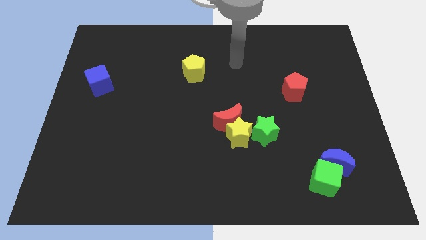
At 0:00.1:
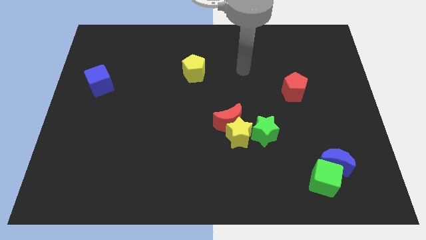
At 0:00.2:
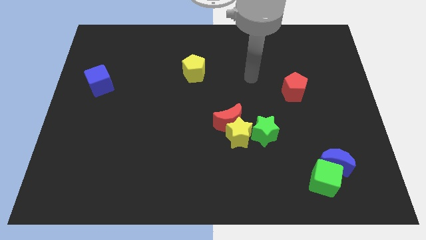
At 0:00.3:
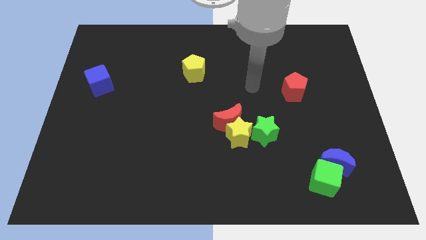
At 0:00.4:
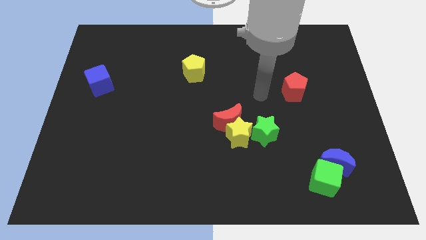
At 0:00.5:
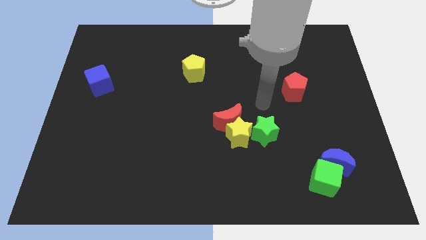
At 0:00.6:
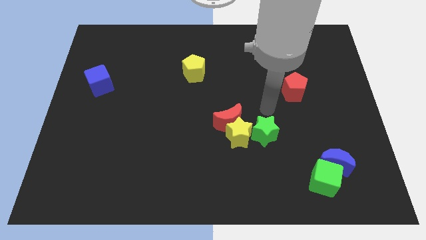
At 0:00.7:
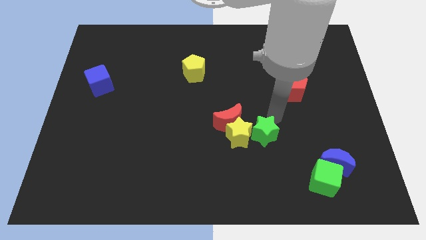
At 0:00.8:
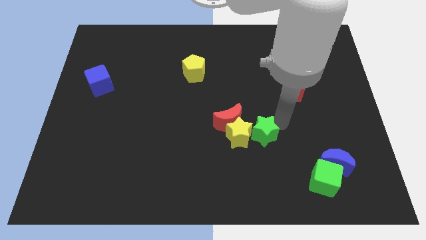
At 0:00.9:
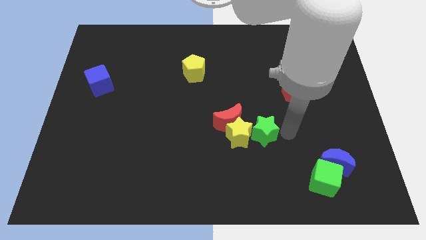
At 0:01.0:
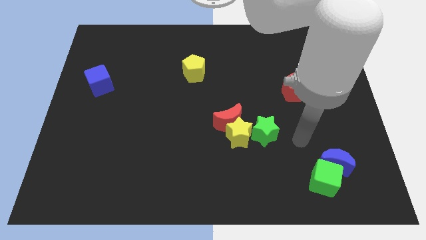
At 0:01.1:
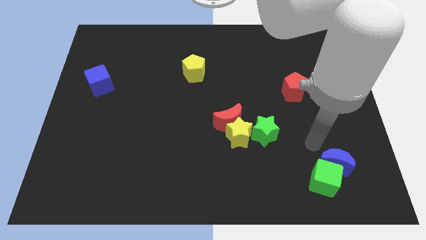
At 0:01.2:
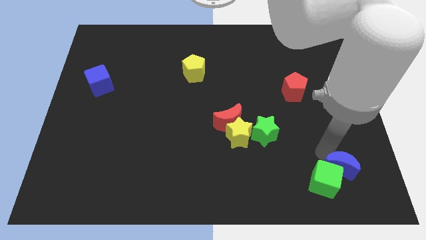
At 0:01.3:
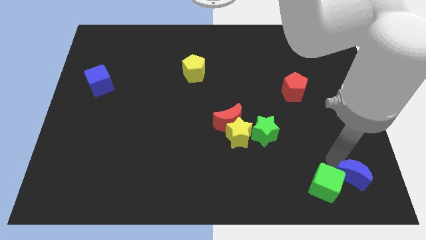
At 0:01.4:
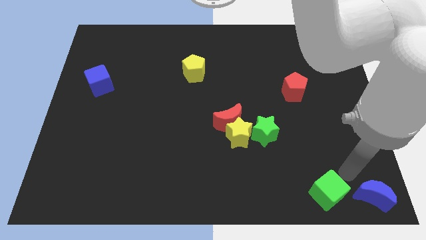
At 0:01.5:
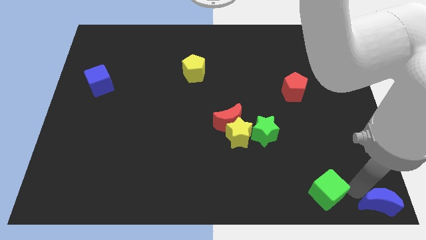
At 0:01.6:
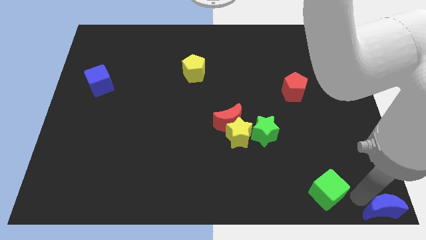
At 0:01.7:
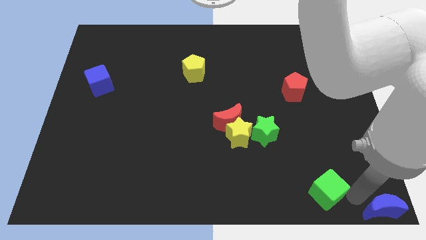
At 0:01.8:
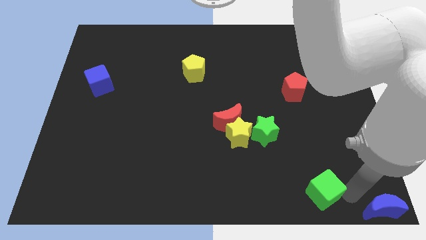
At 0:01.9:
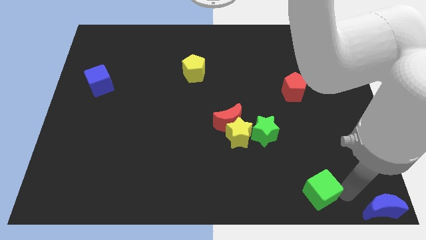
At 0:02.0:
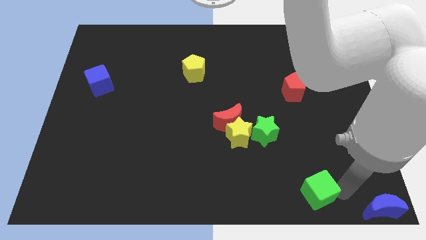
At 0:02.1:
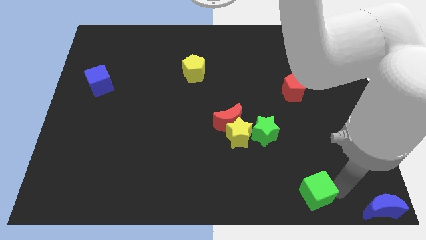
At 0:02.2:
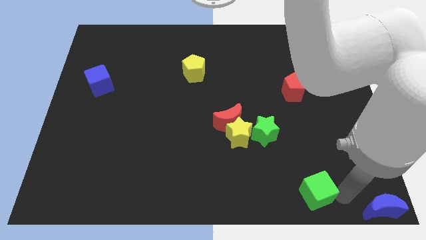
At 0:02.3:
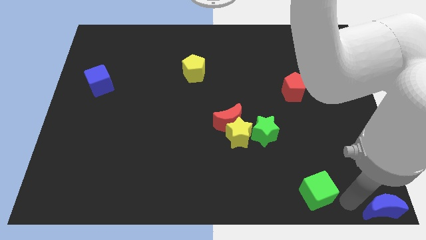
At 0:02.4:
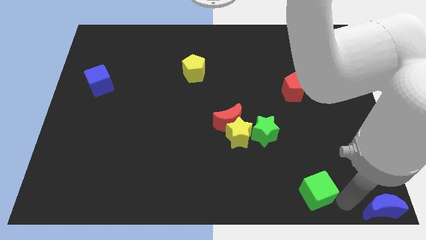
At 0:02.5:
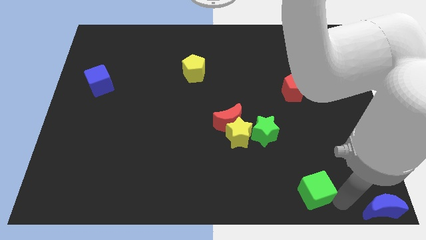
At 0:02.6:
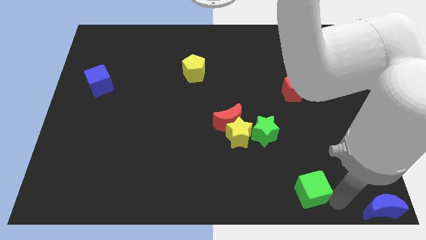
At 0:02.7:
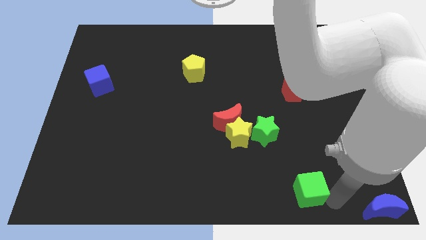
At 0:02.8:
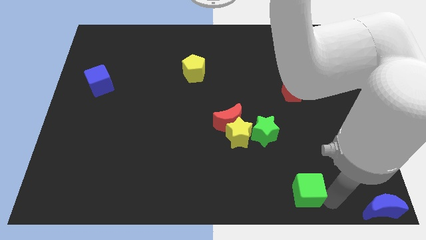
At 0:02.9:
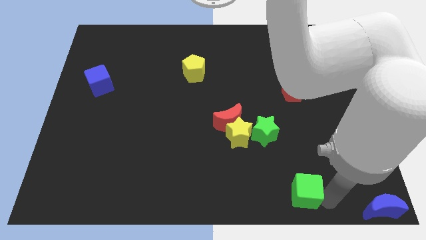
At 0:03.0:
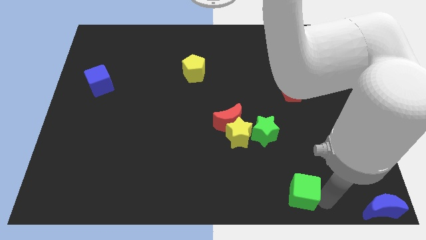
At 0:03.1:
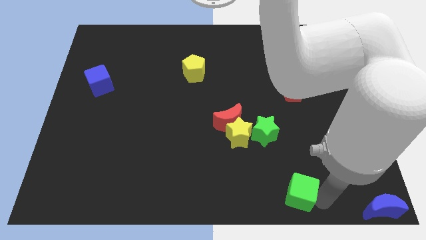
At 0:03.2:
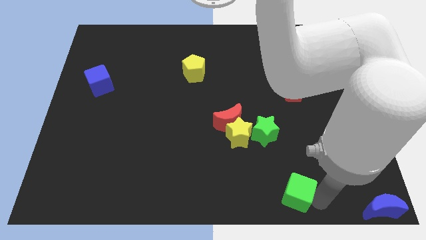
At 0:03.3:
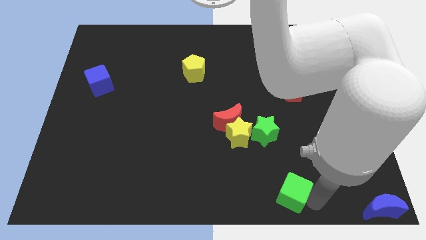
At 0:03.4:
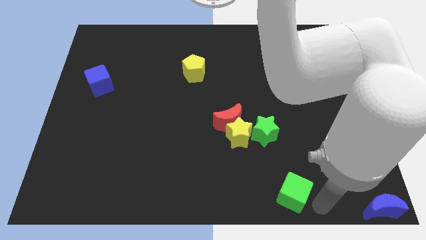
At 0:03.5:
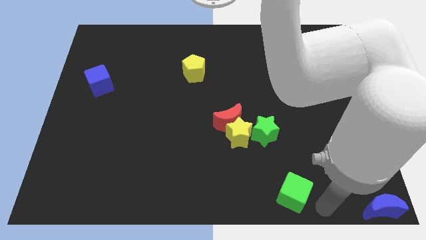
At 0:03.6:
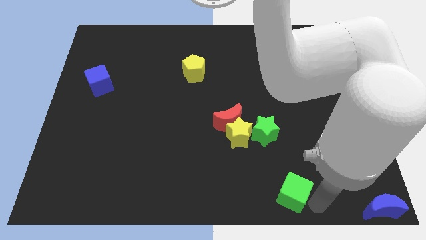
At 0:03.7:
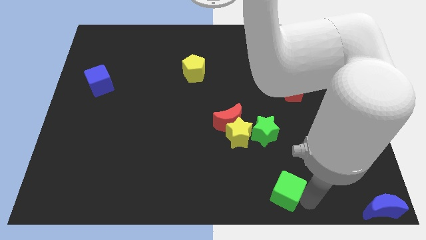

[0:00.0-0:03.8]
move the green cube slightly left

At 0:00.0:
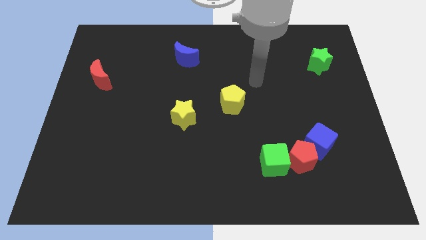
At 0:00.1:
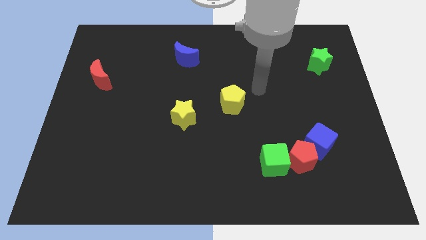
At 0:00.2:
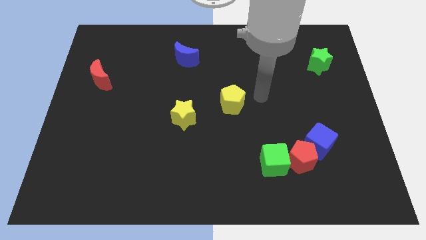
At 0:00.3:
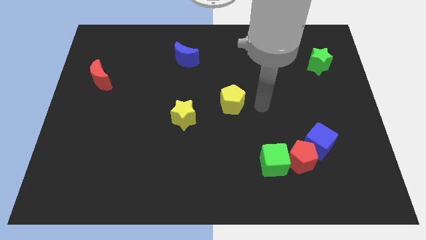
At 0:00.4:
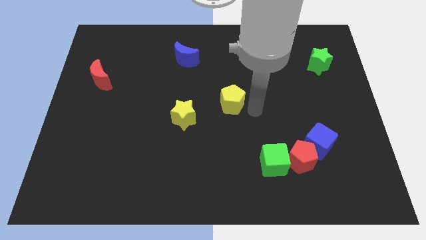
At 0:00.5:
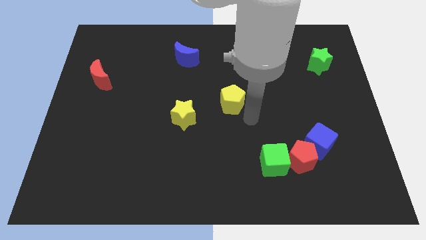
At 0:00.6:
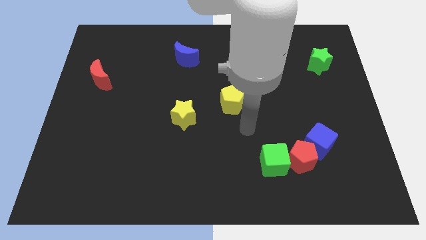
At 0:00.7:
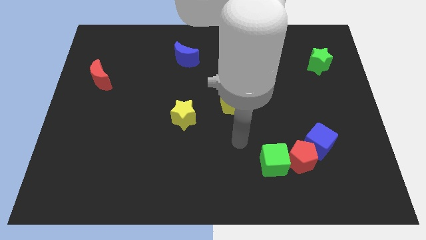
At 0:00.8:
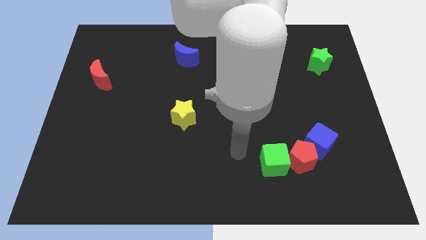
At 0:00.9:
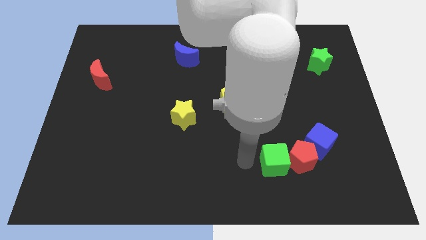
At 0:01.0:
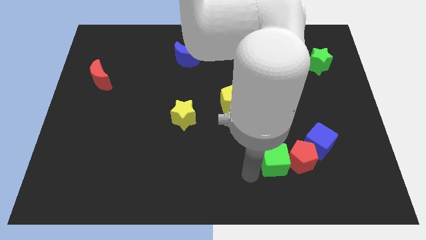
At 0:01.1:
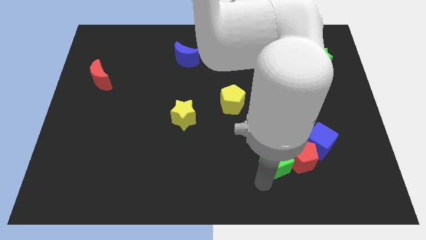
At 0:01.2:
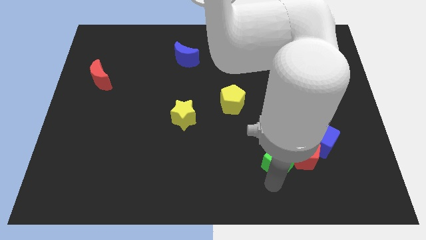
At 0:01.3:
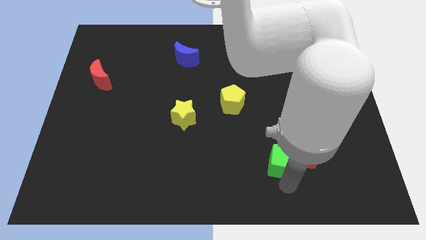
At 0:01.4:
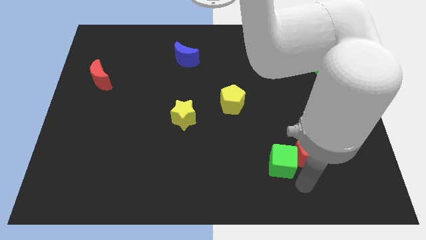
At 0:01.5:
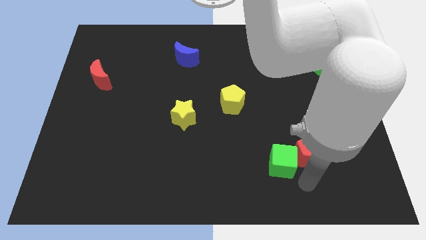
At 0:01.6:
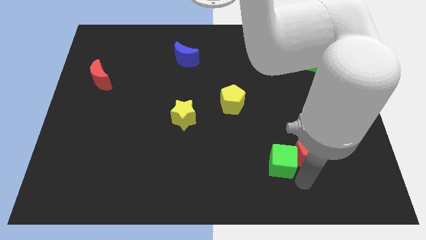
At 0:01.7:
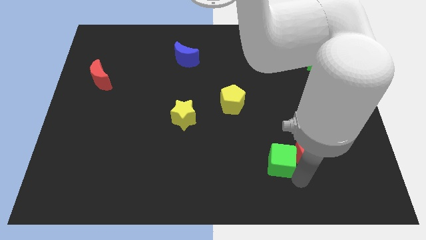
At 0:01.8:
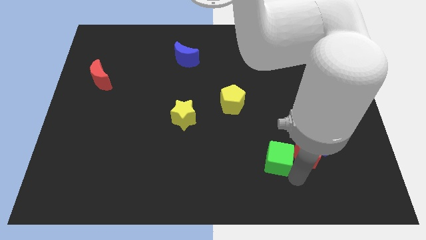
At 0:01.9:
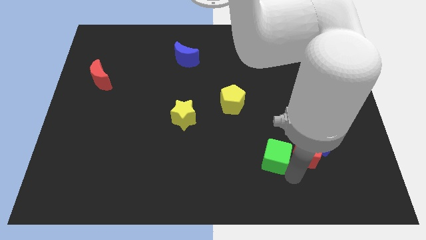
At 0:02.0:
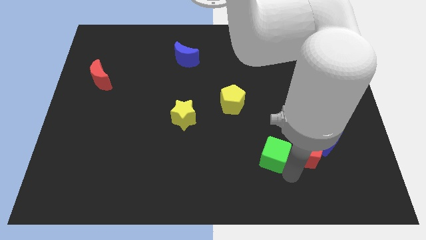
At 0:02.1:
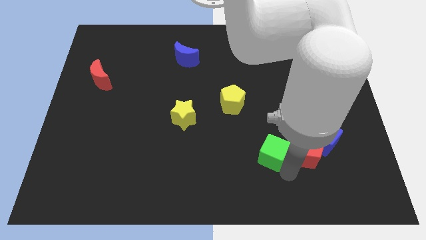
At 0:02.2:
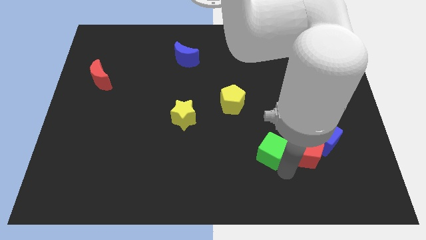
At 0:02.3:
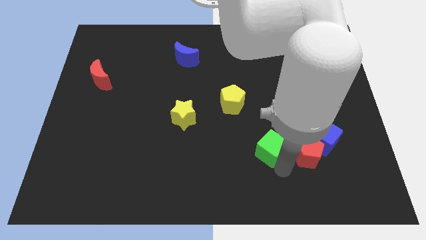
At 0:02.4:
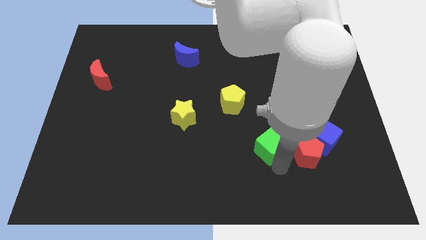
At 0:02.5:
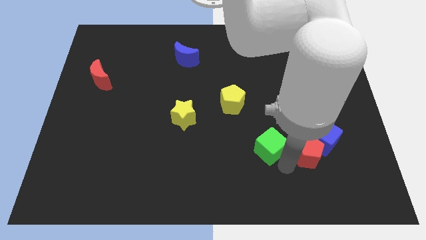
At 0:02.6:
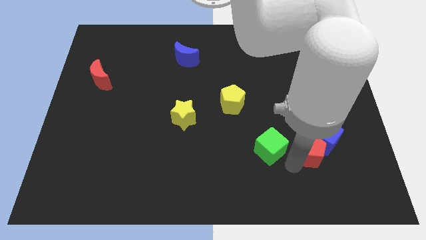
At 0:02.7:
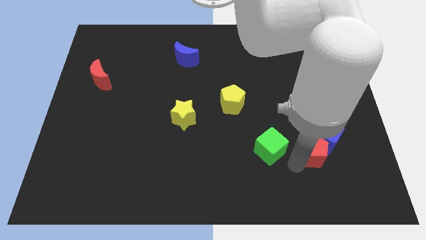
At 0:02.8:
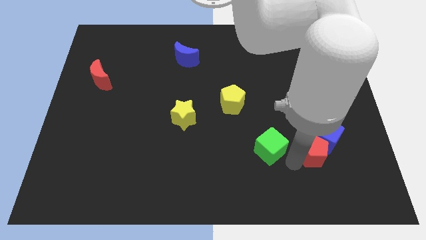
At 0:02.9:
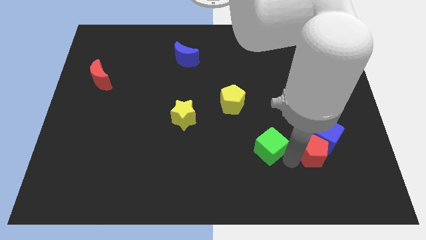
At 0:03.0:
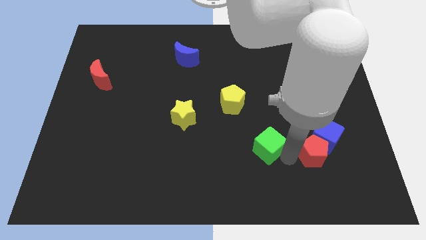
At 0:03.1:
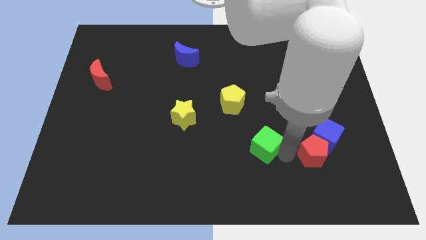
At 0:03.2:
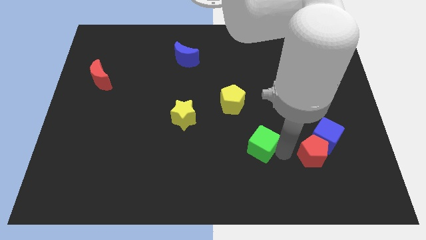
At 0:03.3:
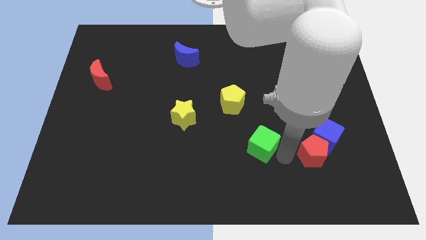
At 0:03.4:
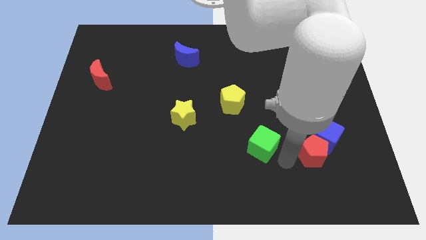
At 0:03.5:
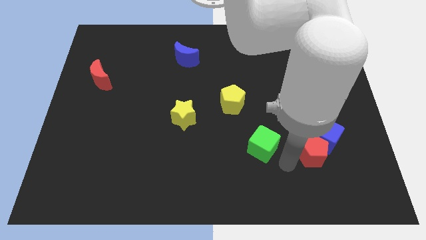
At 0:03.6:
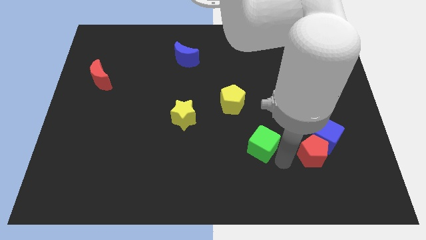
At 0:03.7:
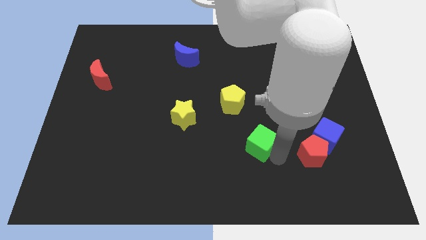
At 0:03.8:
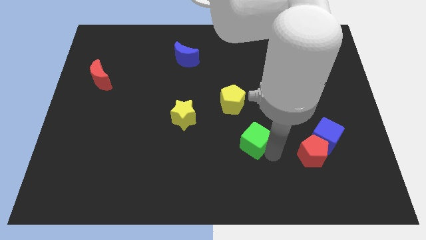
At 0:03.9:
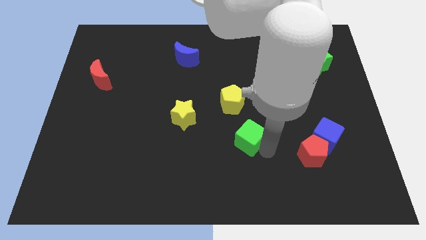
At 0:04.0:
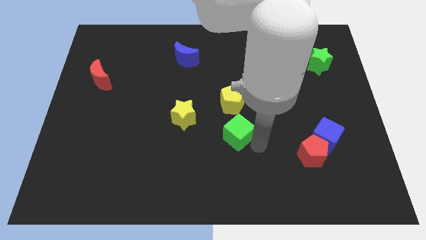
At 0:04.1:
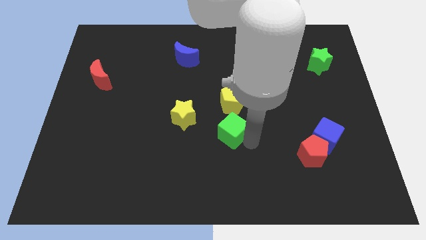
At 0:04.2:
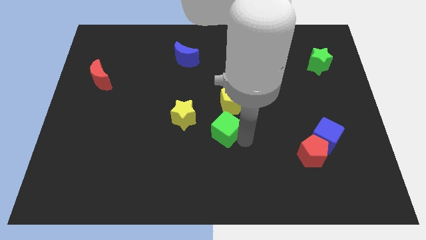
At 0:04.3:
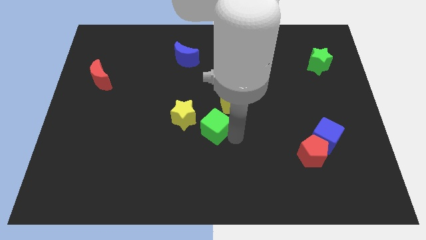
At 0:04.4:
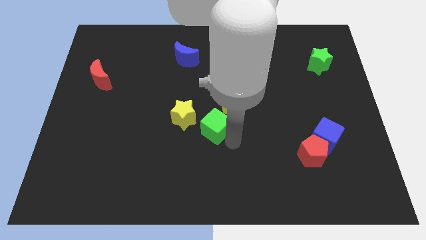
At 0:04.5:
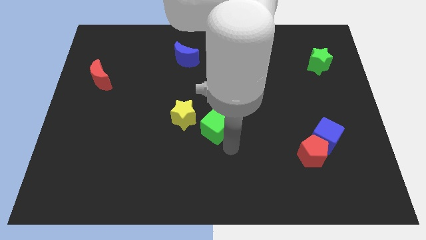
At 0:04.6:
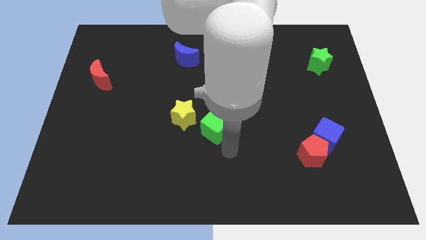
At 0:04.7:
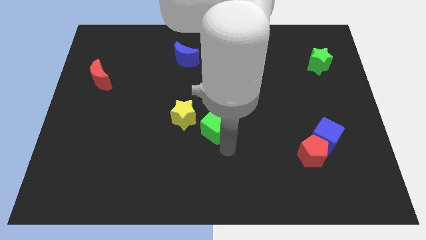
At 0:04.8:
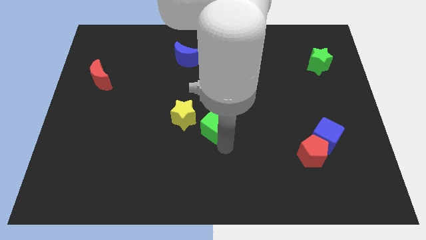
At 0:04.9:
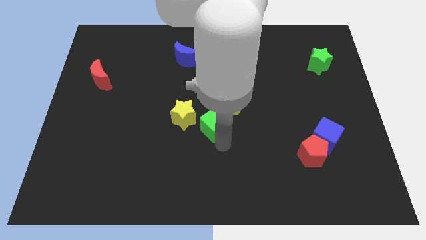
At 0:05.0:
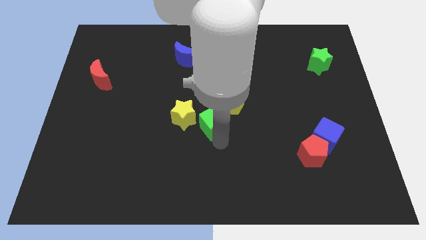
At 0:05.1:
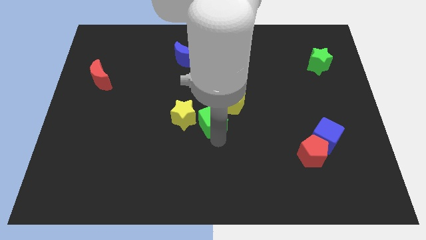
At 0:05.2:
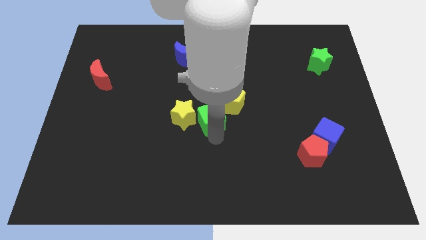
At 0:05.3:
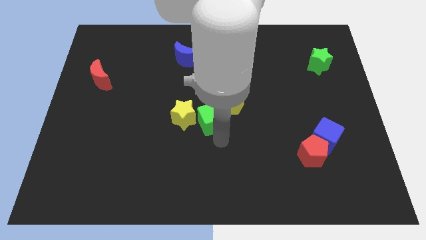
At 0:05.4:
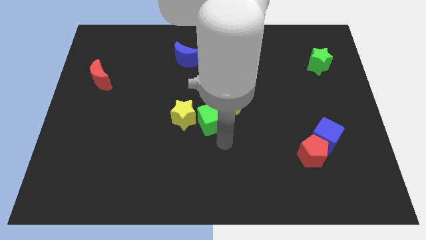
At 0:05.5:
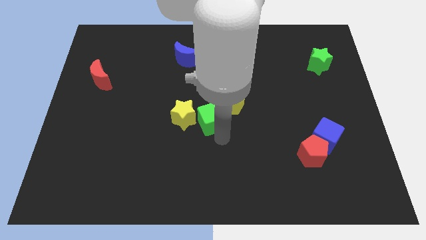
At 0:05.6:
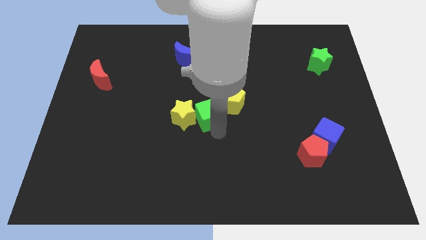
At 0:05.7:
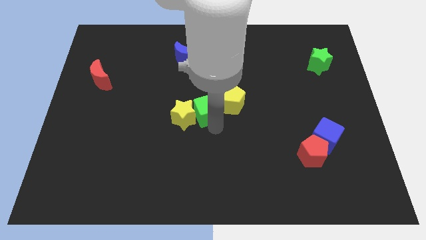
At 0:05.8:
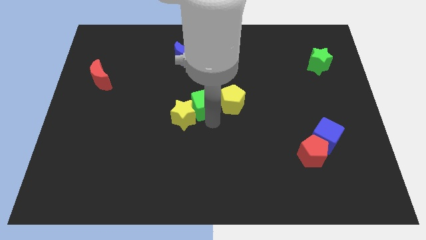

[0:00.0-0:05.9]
move the green cube upwards and left diagonally
